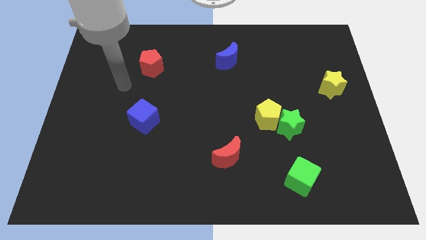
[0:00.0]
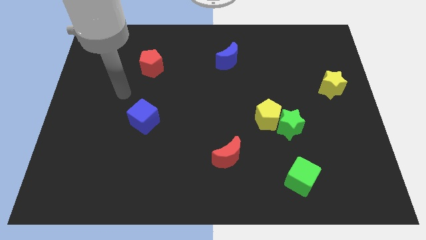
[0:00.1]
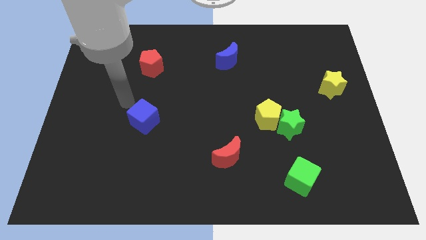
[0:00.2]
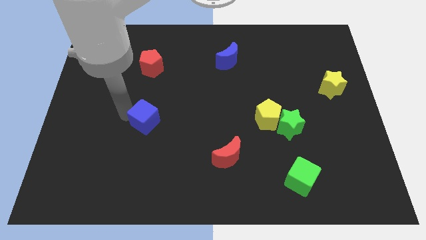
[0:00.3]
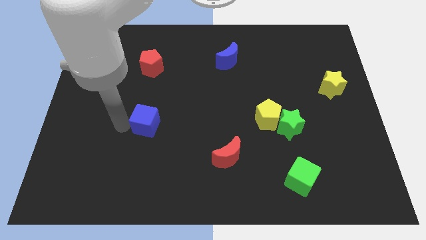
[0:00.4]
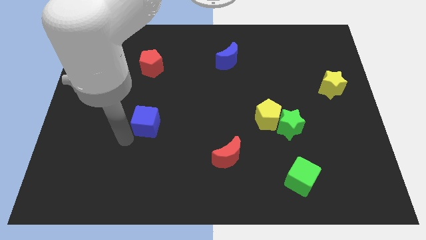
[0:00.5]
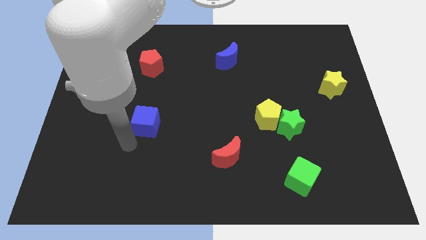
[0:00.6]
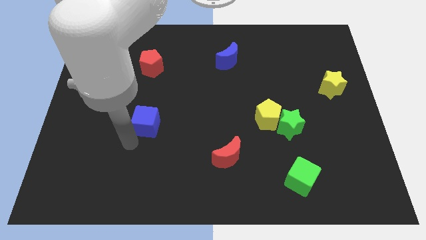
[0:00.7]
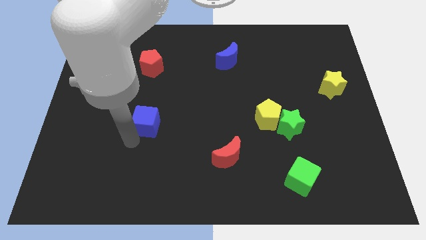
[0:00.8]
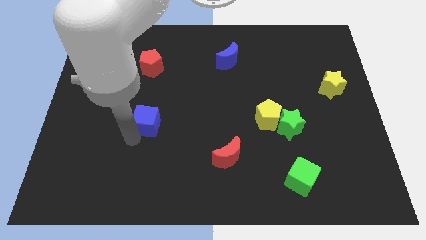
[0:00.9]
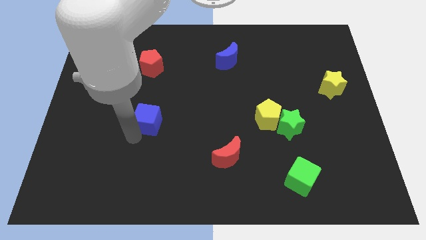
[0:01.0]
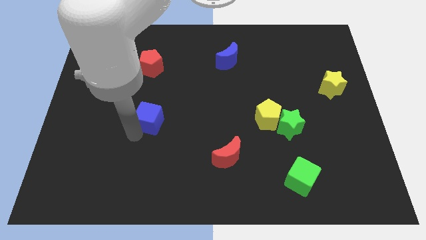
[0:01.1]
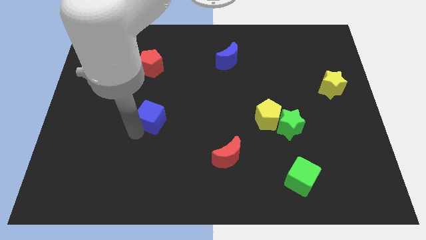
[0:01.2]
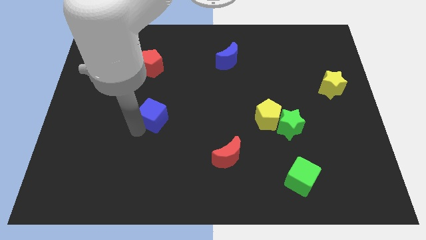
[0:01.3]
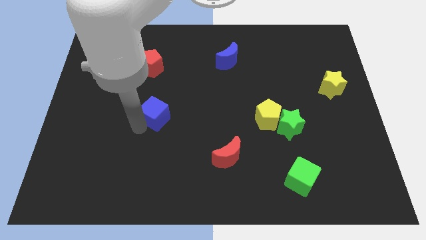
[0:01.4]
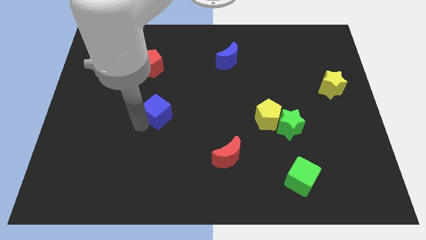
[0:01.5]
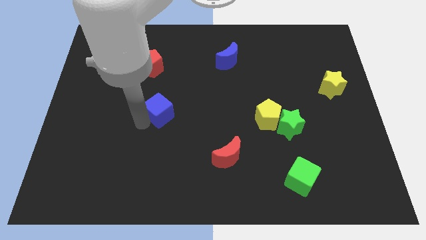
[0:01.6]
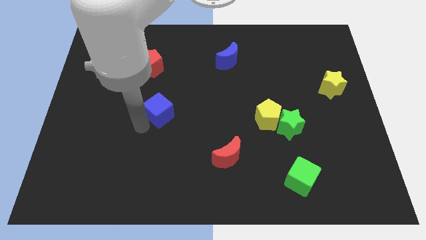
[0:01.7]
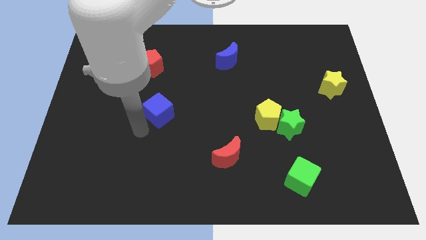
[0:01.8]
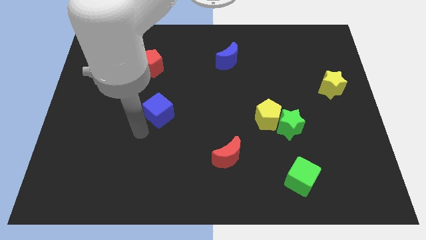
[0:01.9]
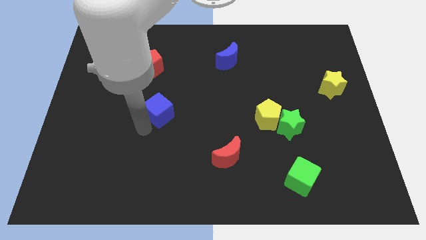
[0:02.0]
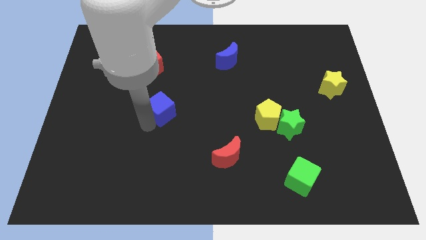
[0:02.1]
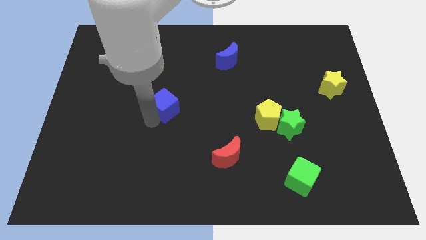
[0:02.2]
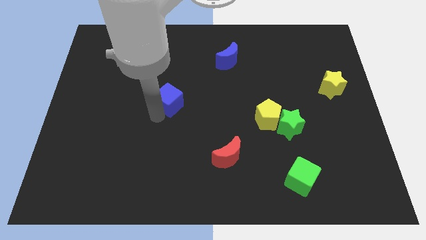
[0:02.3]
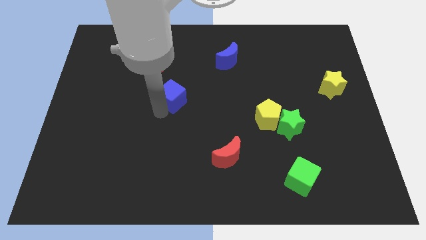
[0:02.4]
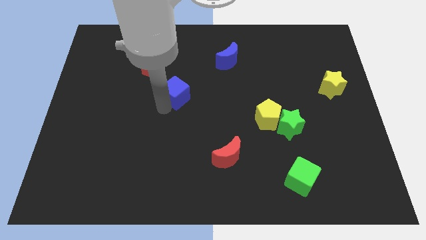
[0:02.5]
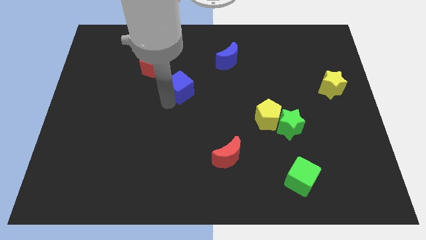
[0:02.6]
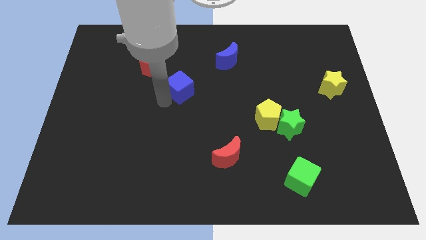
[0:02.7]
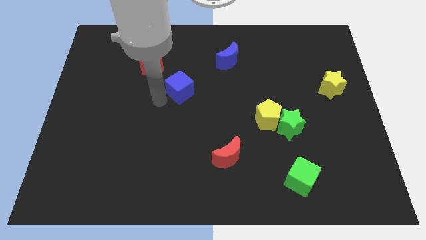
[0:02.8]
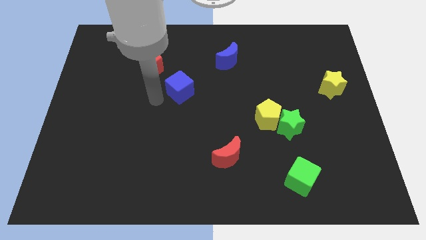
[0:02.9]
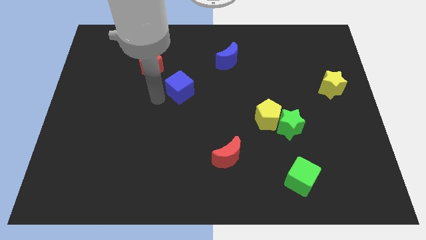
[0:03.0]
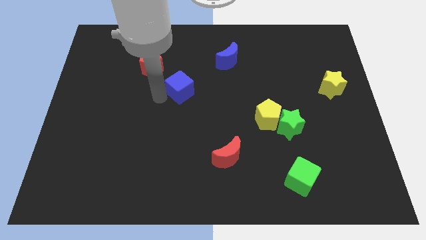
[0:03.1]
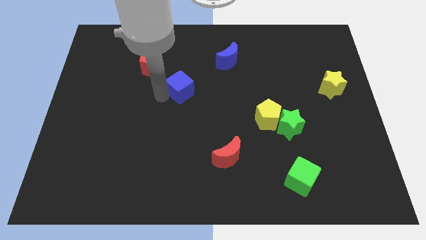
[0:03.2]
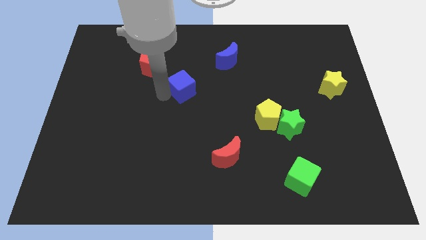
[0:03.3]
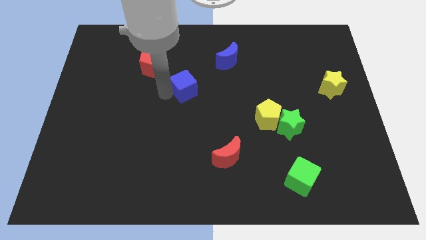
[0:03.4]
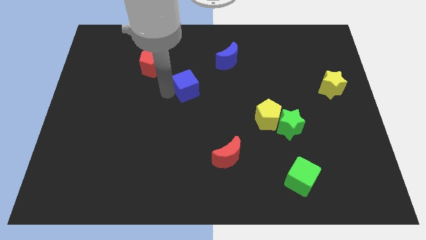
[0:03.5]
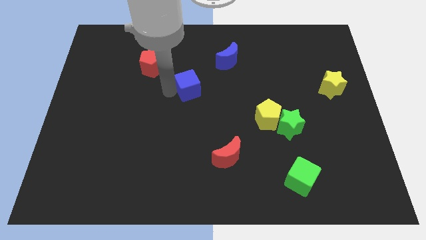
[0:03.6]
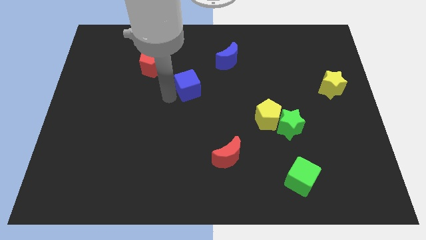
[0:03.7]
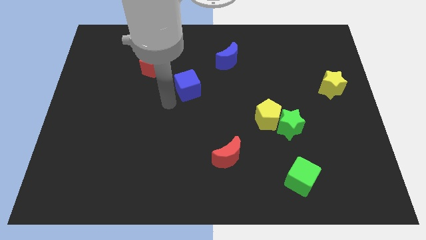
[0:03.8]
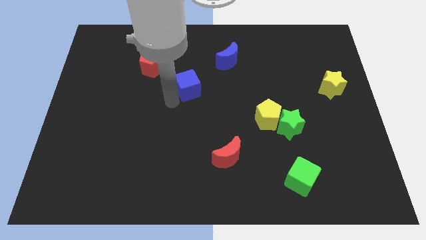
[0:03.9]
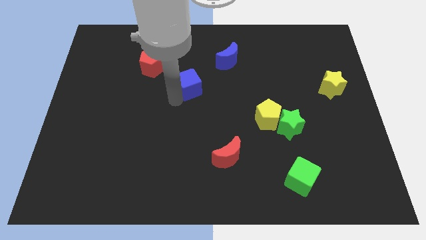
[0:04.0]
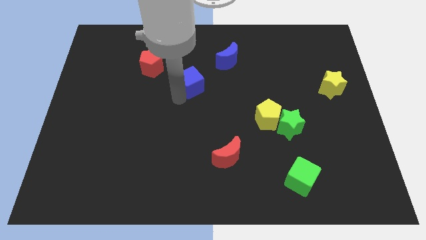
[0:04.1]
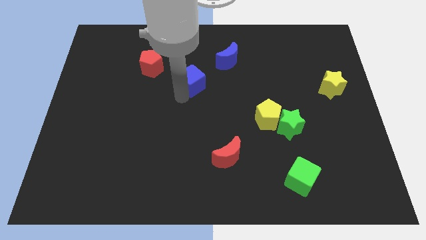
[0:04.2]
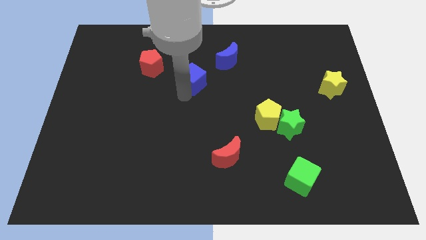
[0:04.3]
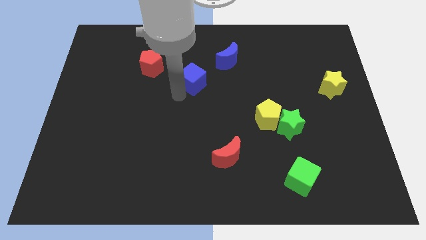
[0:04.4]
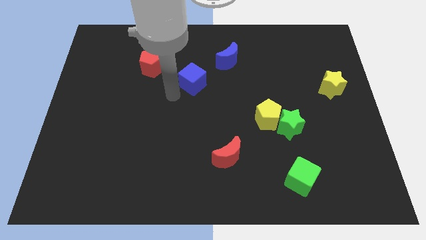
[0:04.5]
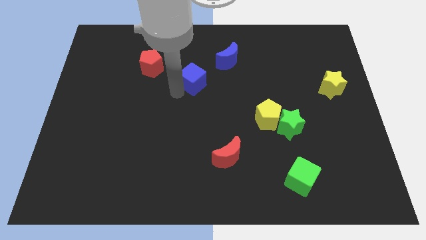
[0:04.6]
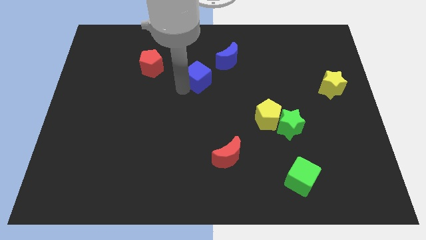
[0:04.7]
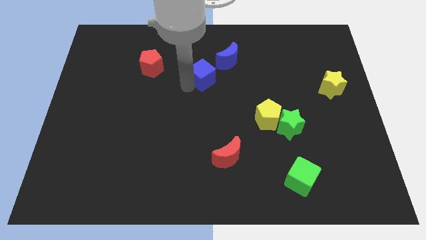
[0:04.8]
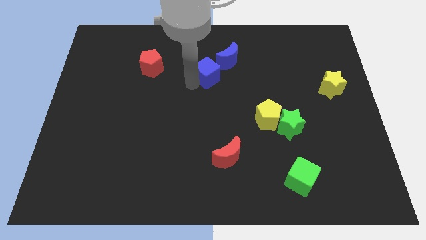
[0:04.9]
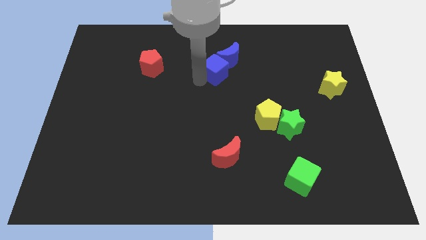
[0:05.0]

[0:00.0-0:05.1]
move the blue cube towards the blue moon

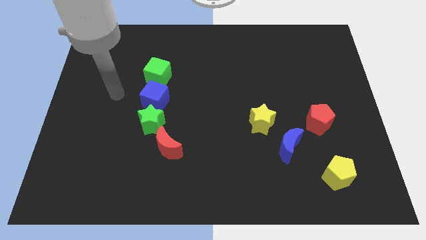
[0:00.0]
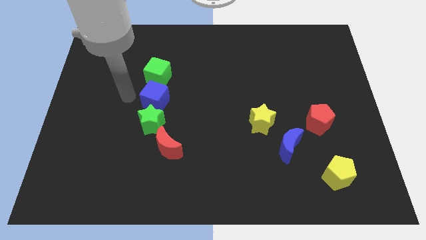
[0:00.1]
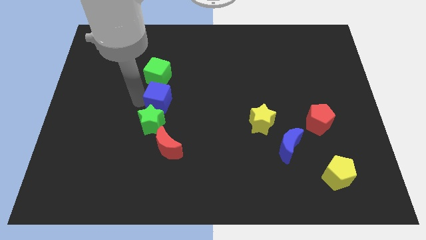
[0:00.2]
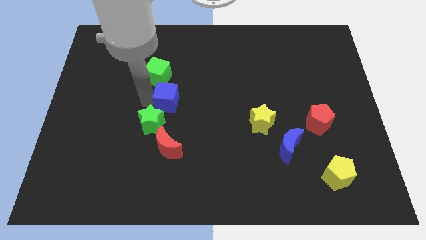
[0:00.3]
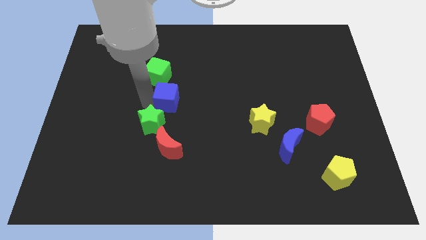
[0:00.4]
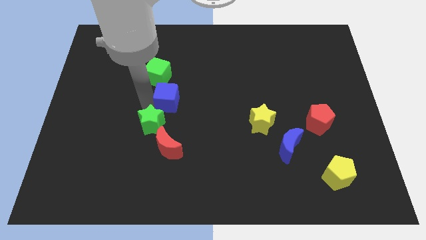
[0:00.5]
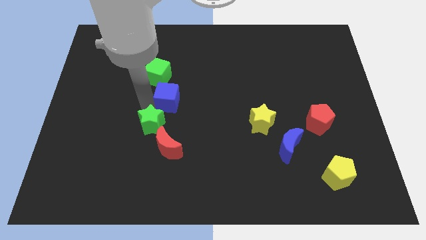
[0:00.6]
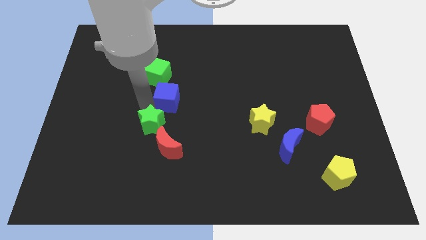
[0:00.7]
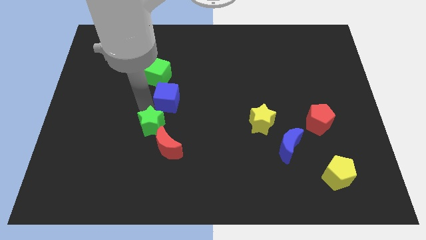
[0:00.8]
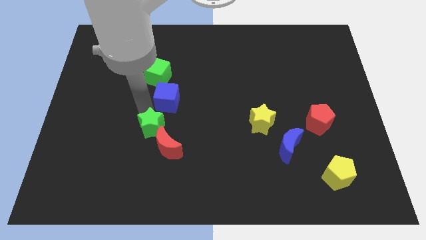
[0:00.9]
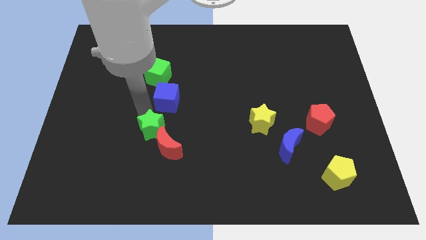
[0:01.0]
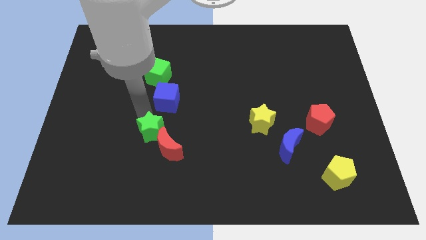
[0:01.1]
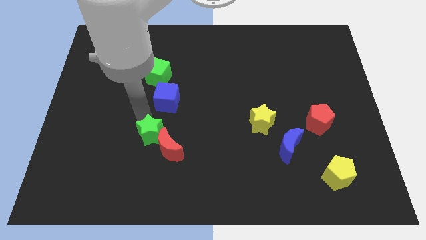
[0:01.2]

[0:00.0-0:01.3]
push the green star close to the red moon

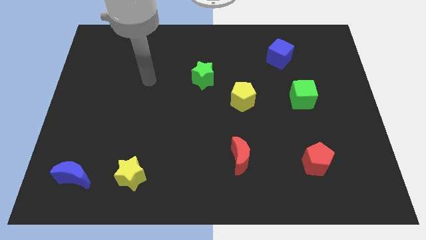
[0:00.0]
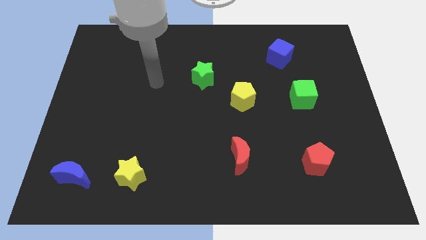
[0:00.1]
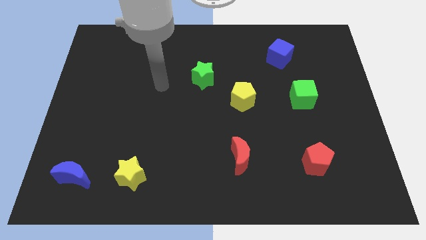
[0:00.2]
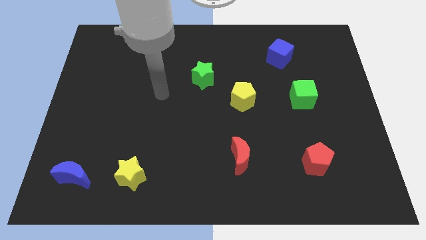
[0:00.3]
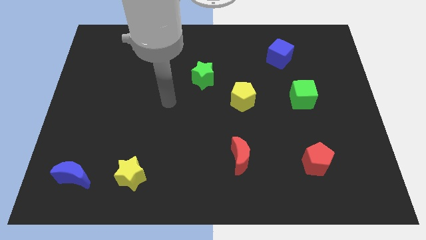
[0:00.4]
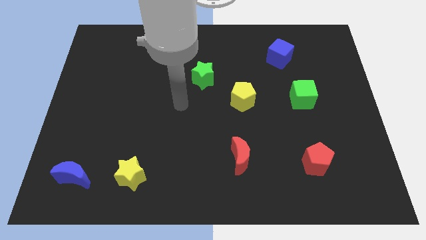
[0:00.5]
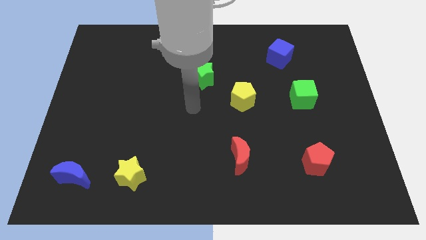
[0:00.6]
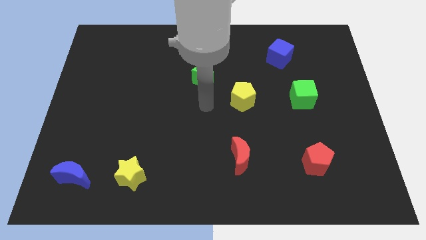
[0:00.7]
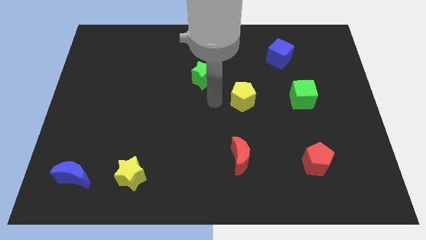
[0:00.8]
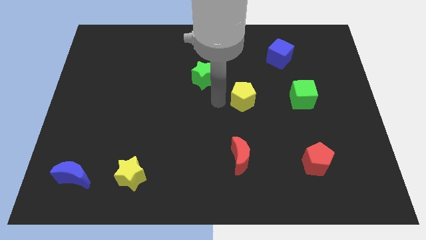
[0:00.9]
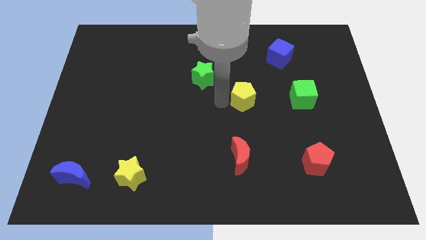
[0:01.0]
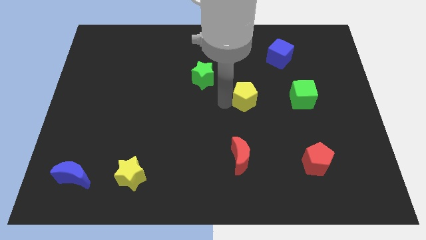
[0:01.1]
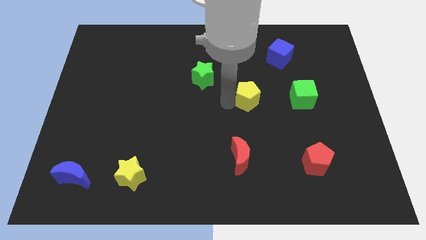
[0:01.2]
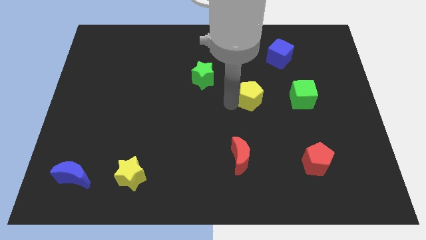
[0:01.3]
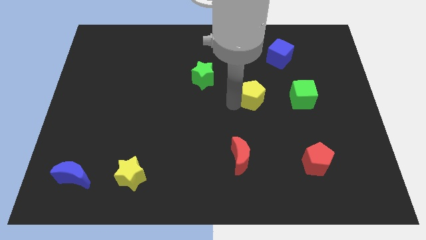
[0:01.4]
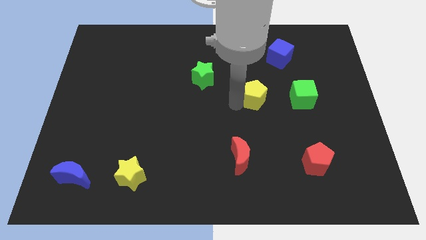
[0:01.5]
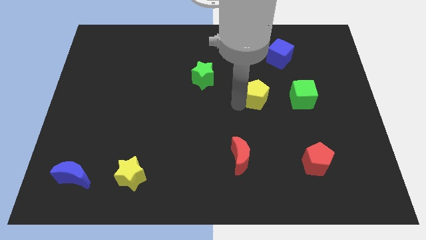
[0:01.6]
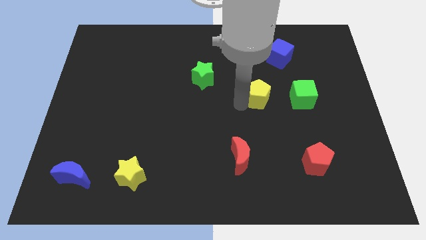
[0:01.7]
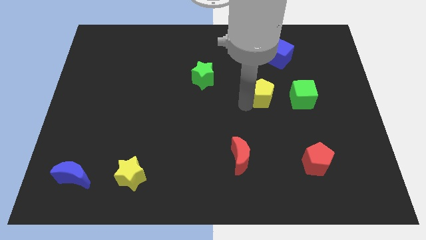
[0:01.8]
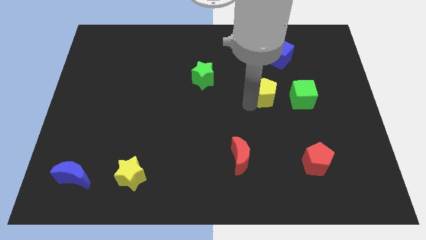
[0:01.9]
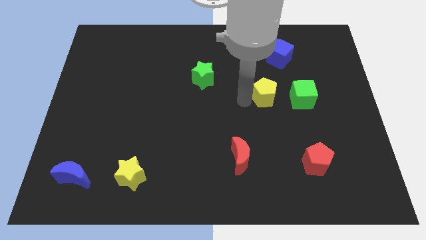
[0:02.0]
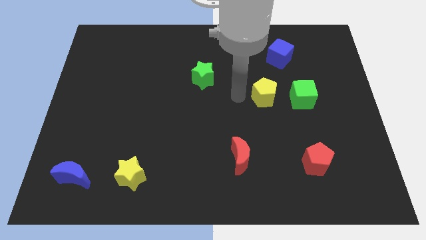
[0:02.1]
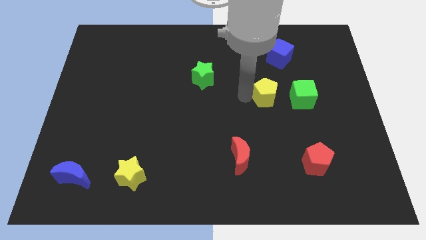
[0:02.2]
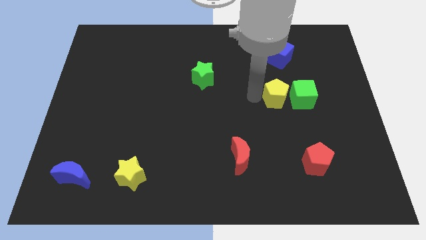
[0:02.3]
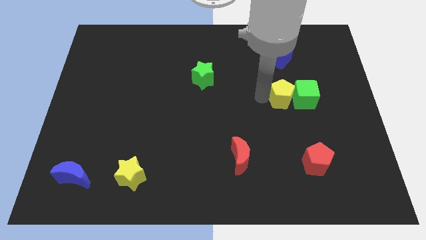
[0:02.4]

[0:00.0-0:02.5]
move the yellow pentagon close to the green cube
